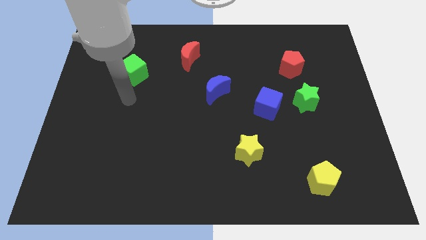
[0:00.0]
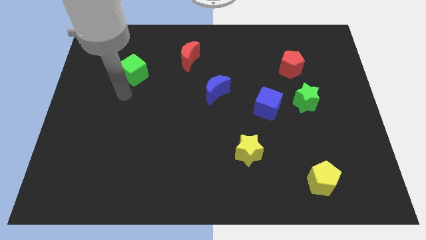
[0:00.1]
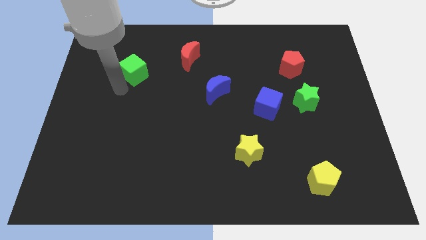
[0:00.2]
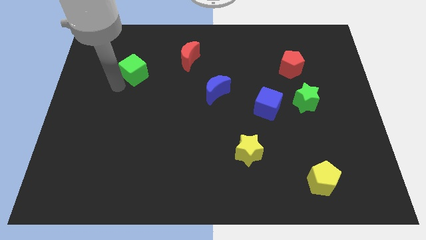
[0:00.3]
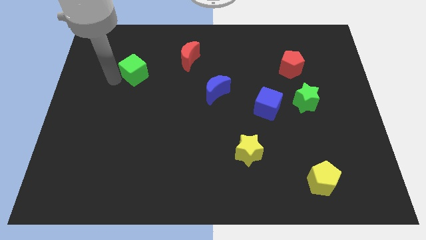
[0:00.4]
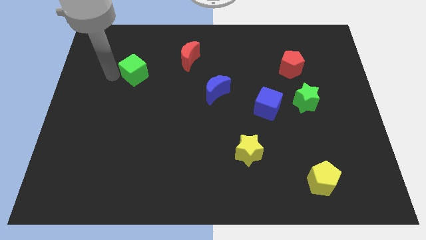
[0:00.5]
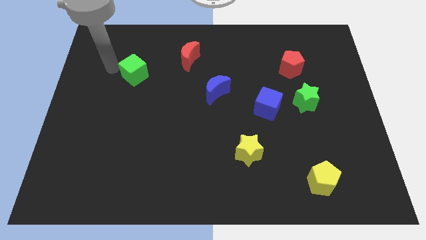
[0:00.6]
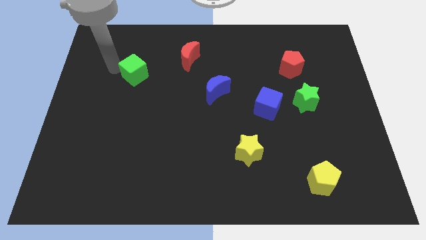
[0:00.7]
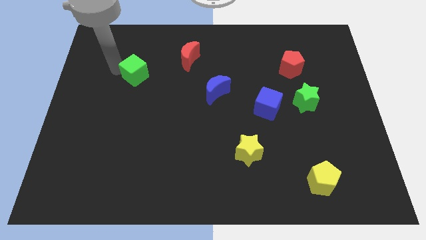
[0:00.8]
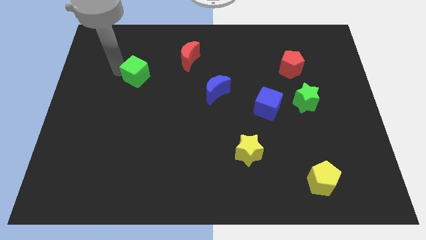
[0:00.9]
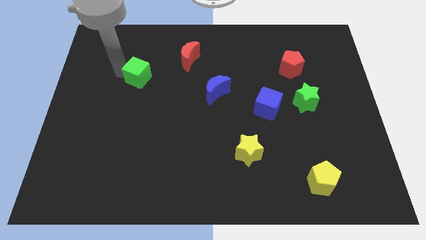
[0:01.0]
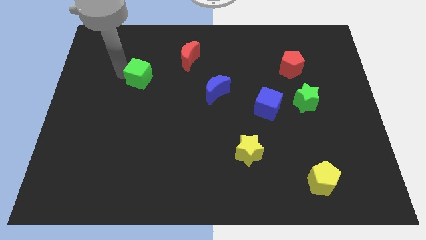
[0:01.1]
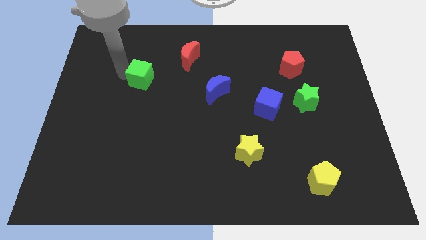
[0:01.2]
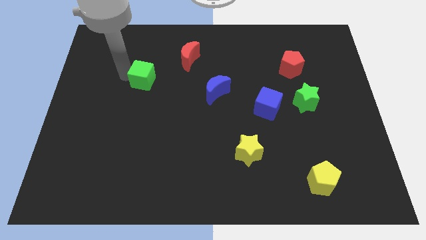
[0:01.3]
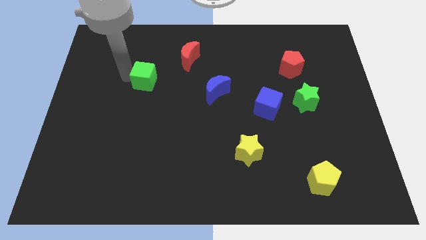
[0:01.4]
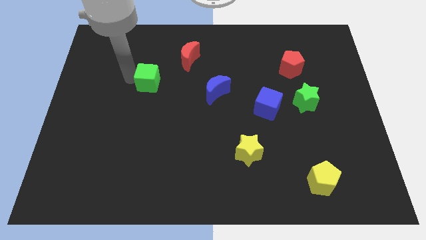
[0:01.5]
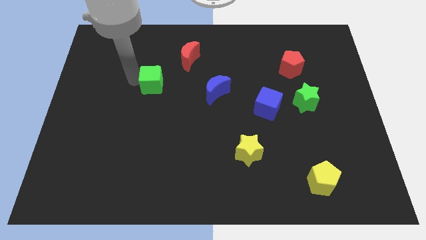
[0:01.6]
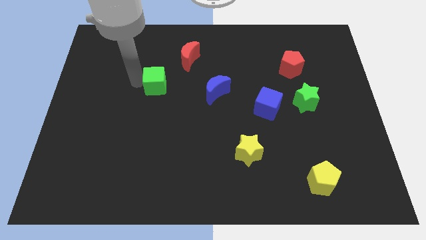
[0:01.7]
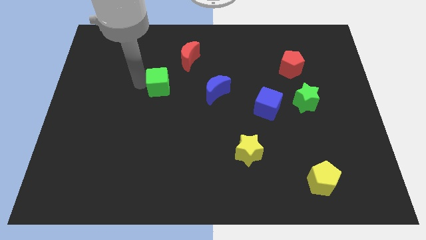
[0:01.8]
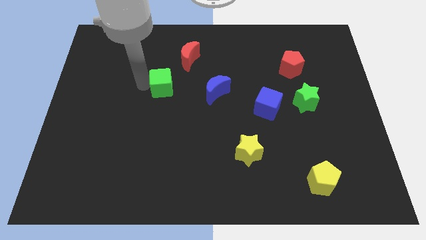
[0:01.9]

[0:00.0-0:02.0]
move the green cube a bit right

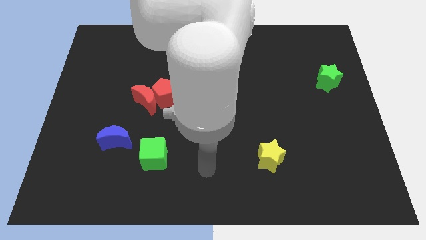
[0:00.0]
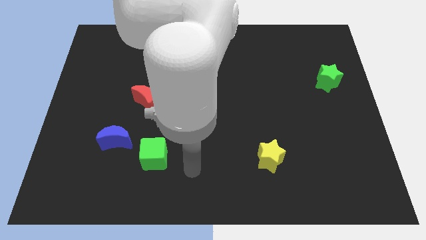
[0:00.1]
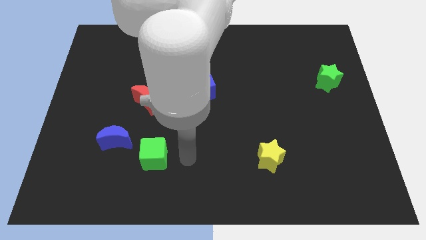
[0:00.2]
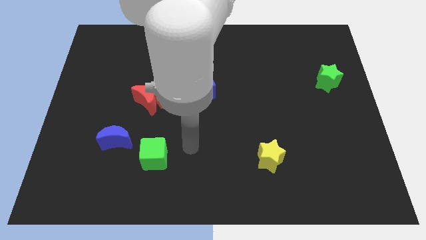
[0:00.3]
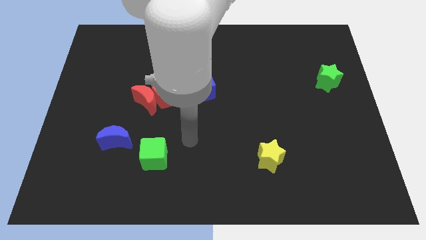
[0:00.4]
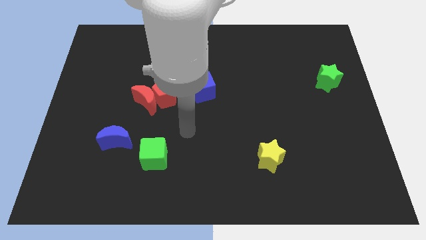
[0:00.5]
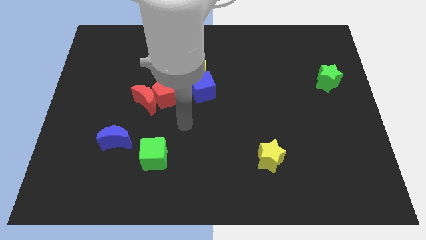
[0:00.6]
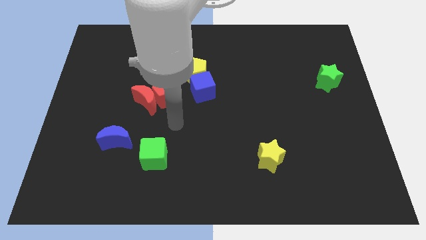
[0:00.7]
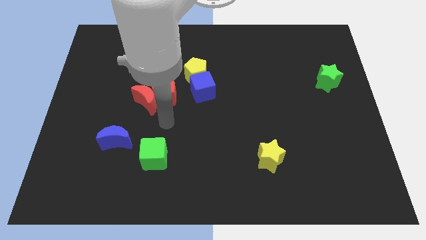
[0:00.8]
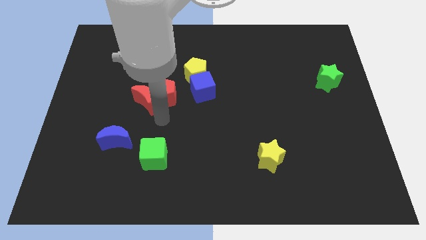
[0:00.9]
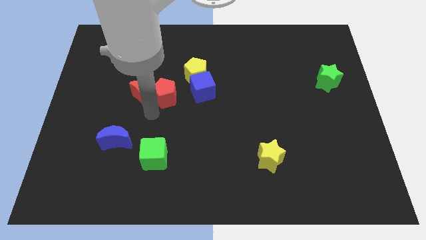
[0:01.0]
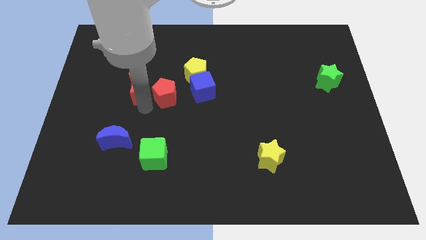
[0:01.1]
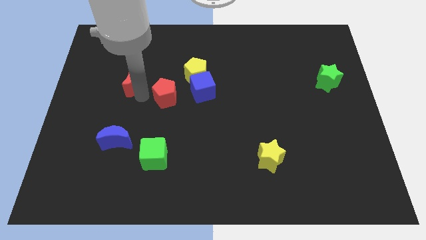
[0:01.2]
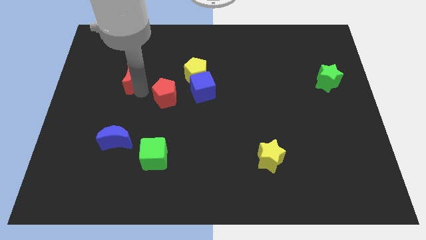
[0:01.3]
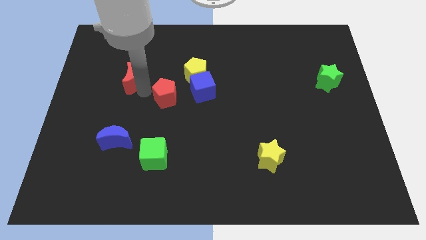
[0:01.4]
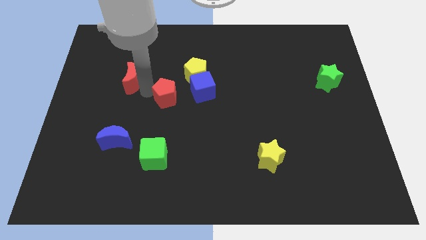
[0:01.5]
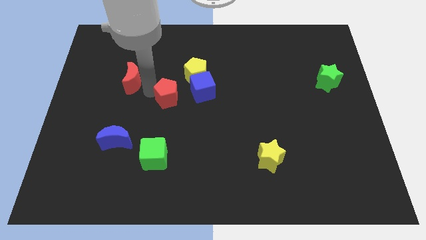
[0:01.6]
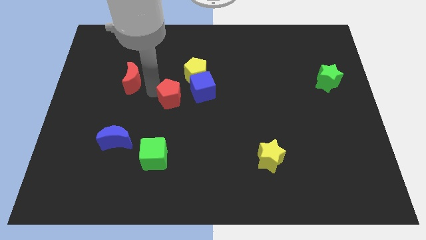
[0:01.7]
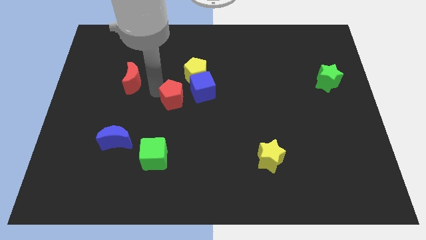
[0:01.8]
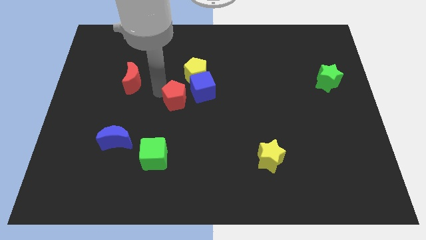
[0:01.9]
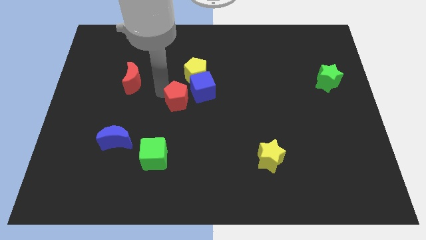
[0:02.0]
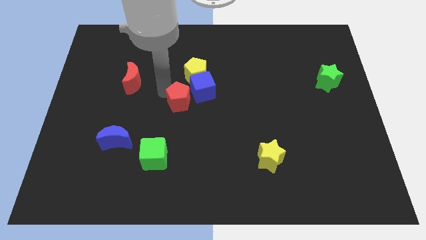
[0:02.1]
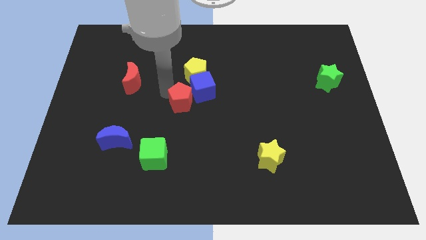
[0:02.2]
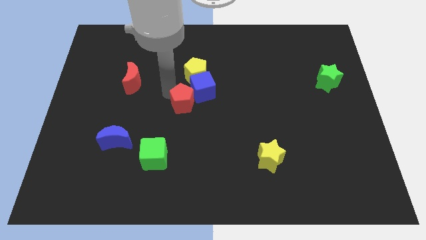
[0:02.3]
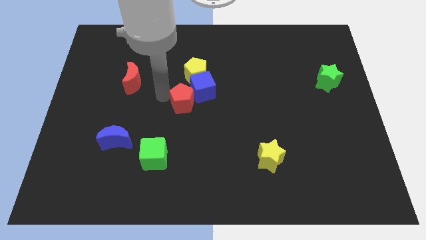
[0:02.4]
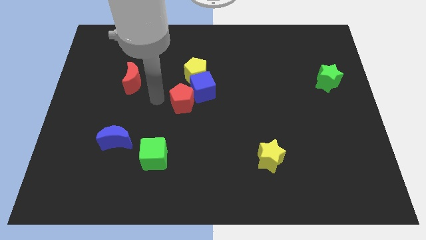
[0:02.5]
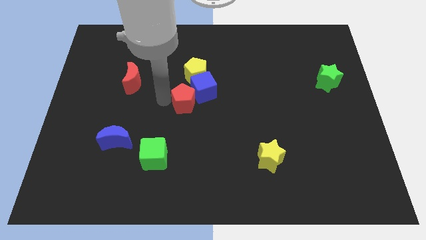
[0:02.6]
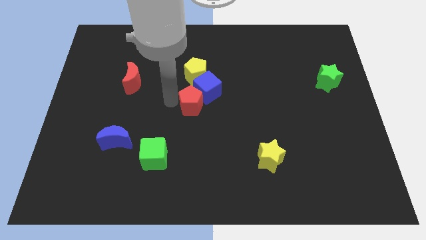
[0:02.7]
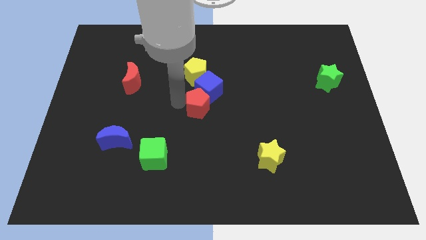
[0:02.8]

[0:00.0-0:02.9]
slide the red pentagon right a little bit

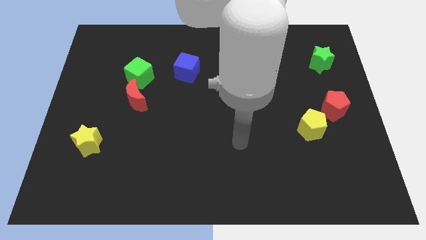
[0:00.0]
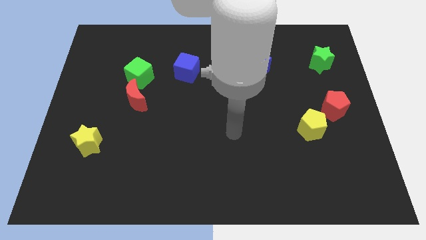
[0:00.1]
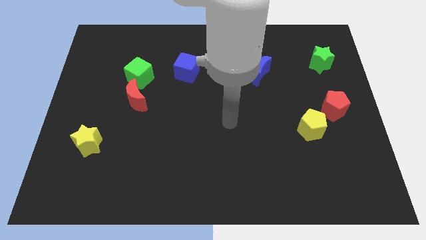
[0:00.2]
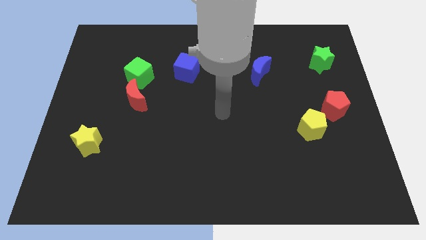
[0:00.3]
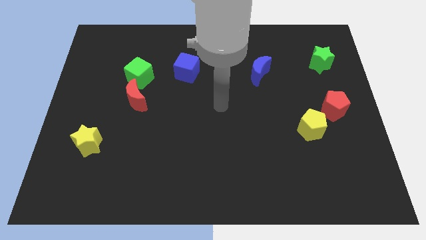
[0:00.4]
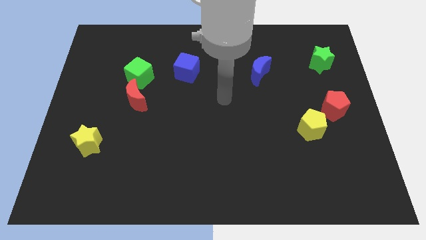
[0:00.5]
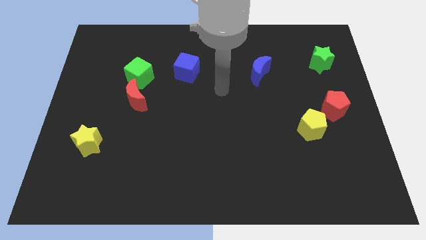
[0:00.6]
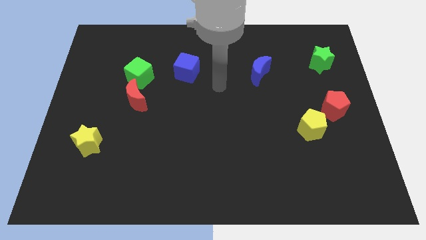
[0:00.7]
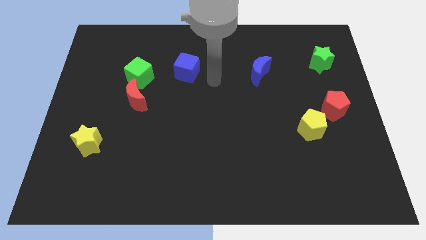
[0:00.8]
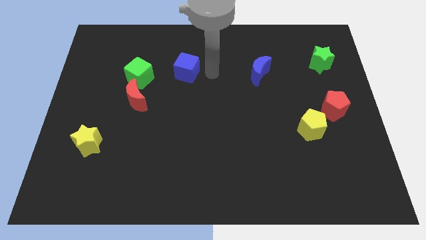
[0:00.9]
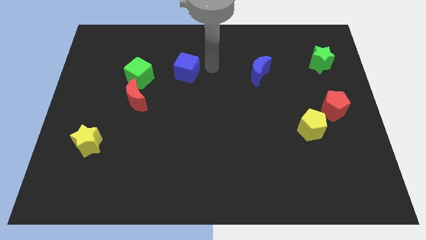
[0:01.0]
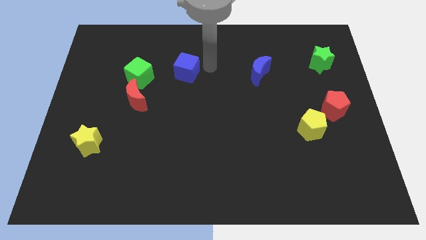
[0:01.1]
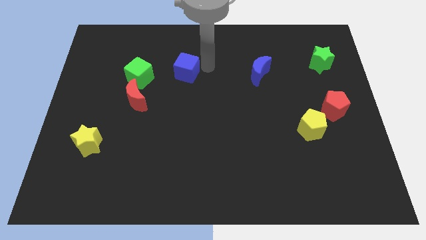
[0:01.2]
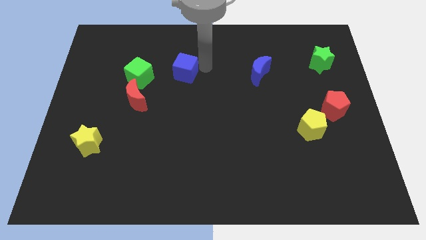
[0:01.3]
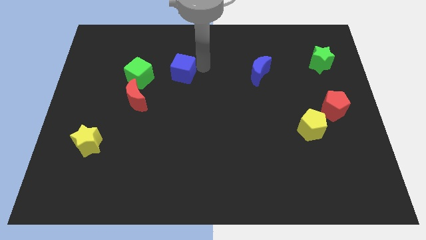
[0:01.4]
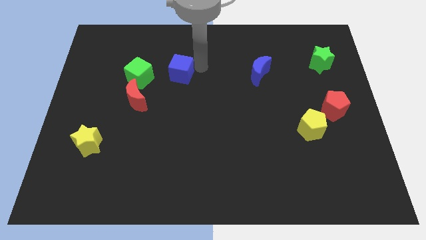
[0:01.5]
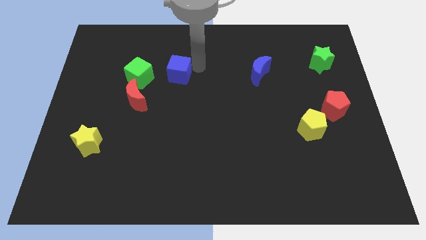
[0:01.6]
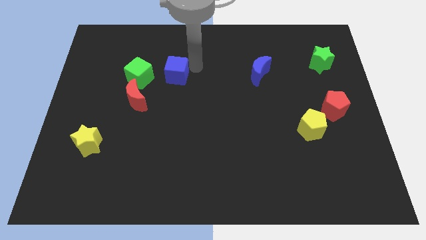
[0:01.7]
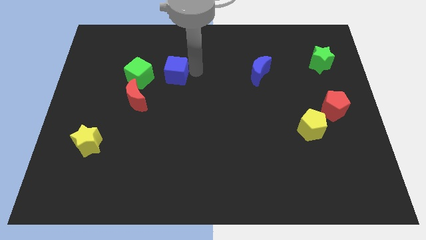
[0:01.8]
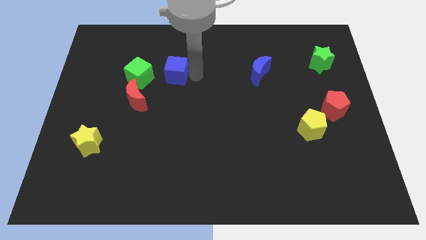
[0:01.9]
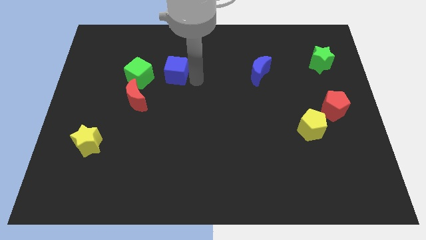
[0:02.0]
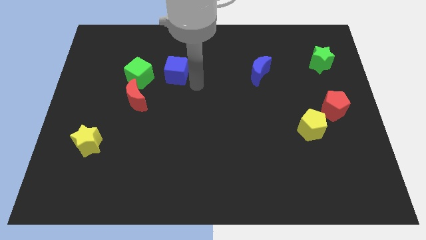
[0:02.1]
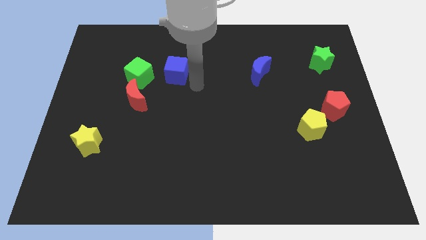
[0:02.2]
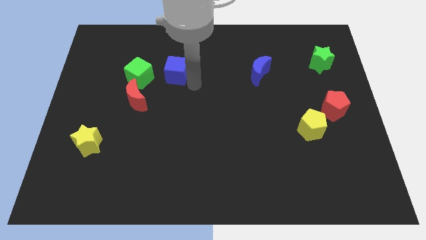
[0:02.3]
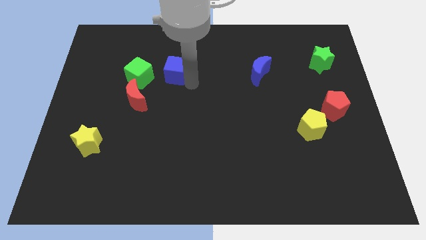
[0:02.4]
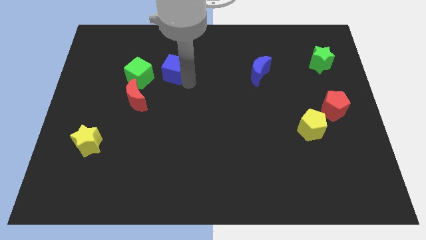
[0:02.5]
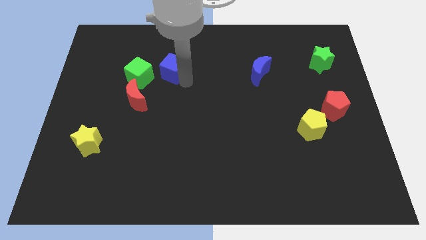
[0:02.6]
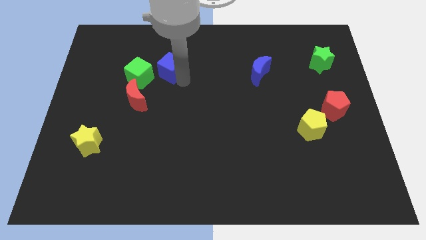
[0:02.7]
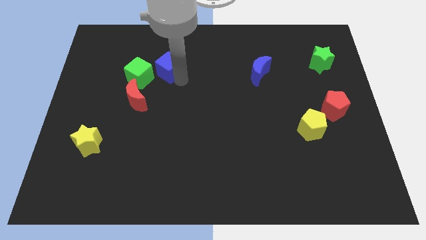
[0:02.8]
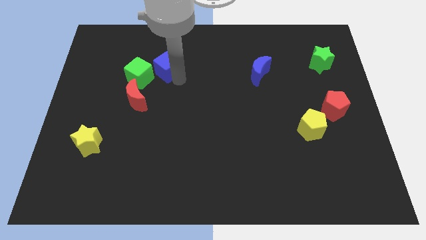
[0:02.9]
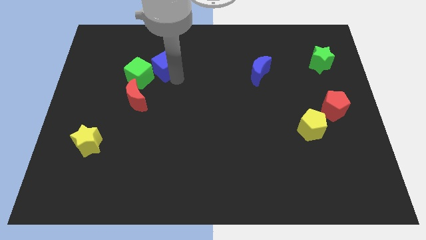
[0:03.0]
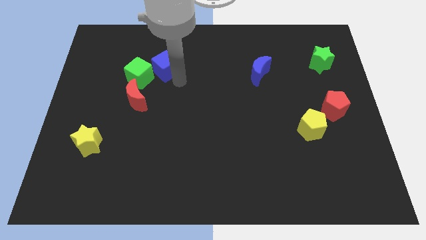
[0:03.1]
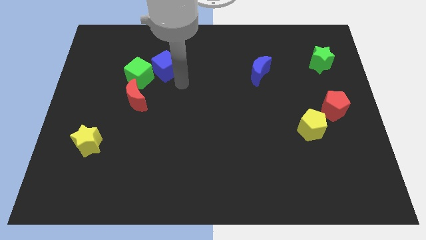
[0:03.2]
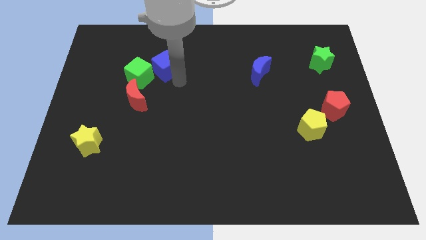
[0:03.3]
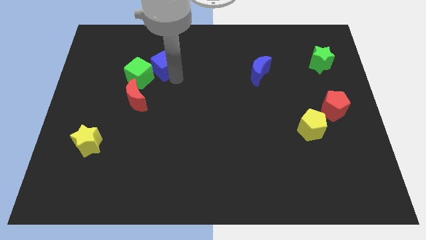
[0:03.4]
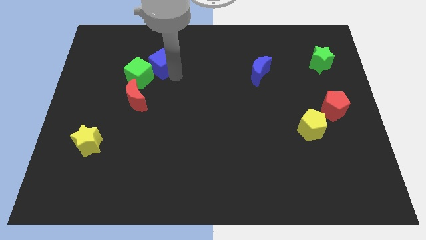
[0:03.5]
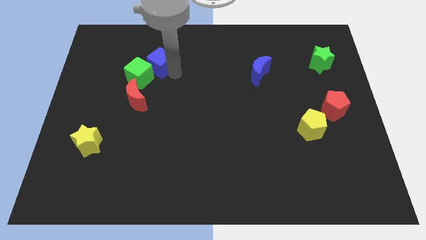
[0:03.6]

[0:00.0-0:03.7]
slide the blue cube left a bit
